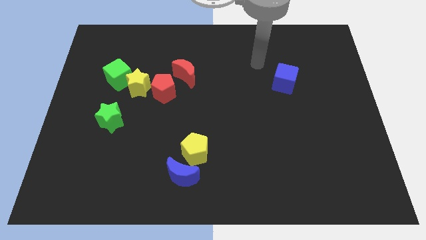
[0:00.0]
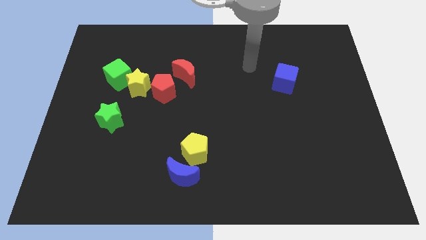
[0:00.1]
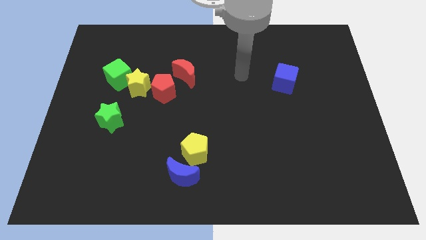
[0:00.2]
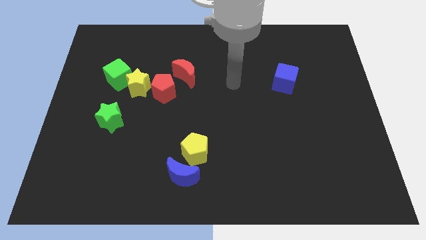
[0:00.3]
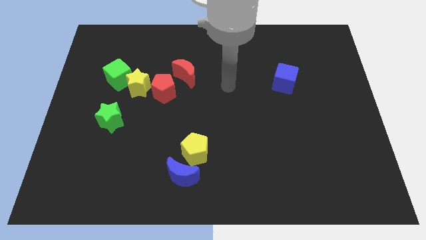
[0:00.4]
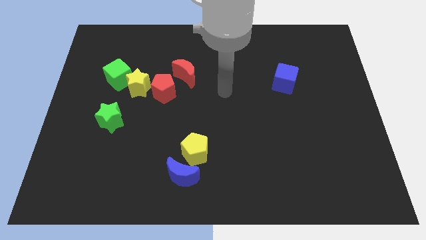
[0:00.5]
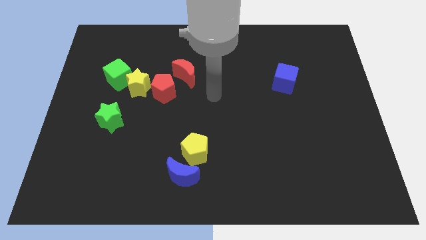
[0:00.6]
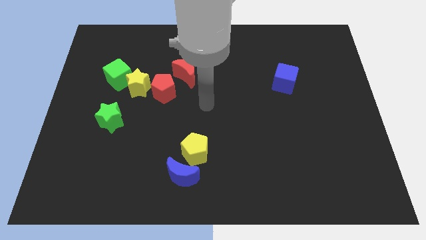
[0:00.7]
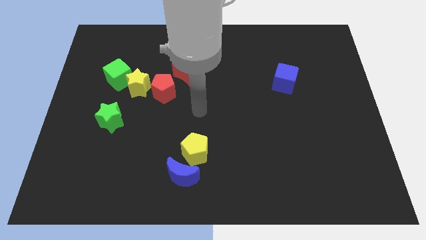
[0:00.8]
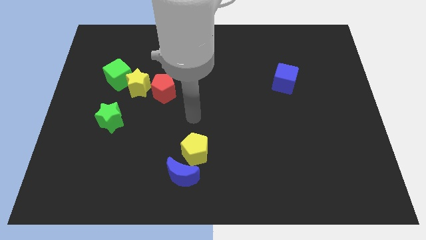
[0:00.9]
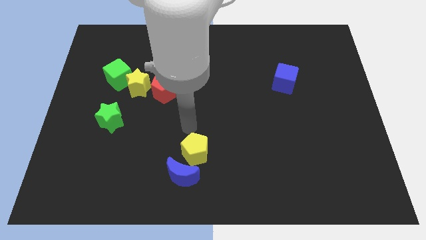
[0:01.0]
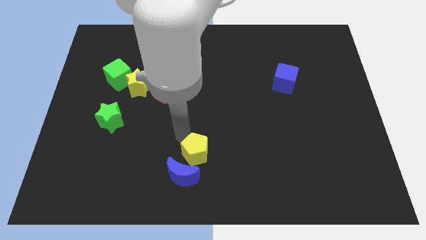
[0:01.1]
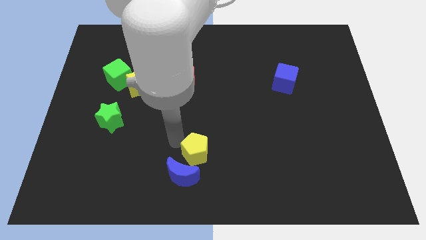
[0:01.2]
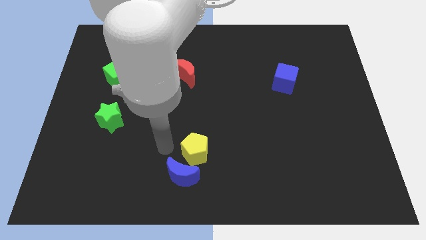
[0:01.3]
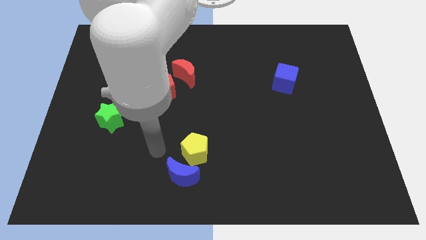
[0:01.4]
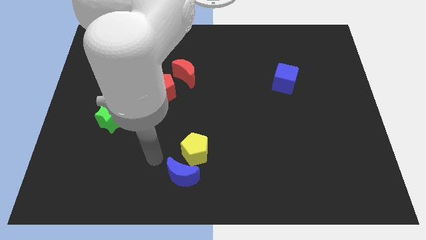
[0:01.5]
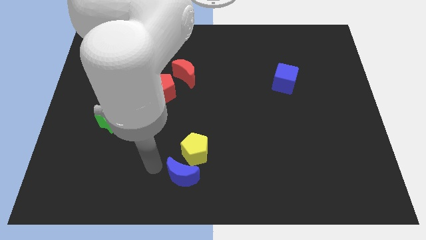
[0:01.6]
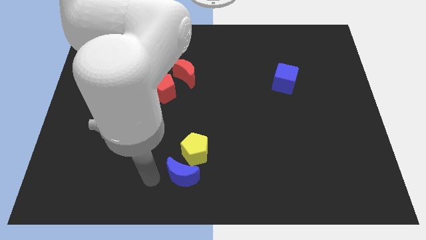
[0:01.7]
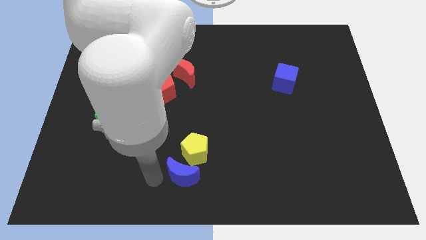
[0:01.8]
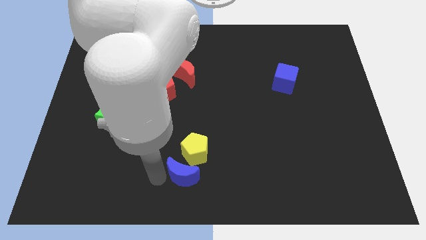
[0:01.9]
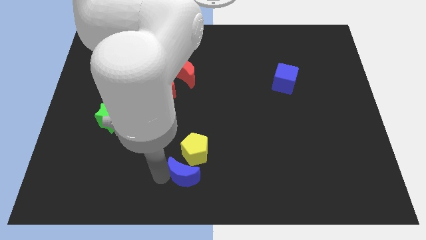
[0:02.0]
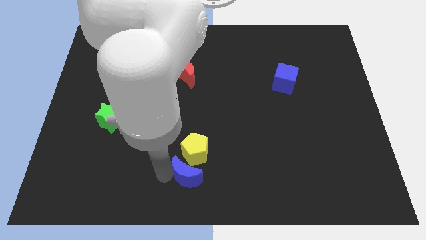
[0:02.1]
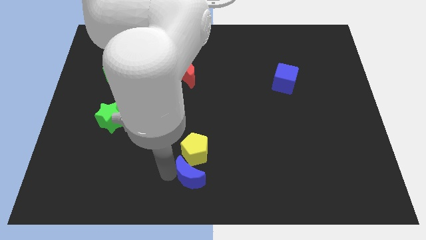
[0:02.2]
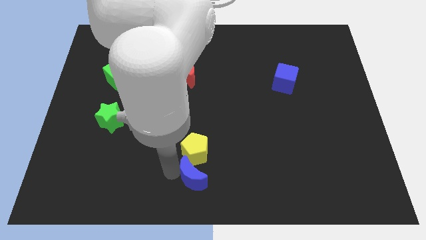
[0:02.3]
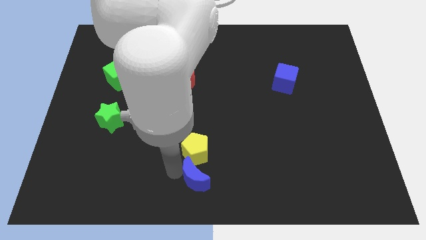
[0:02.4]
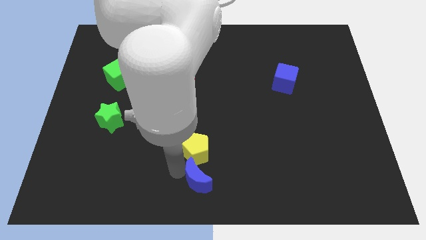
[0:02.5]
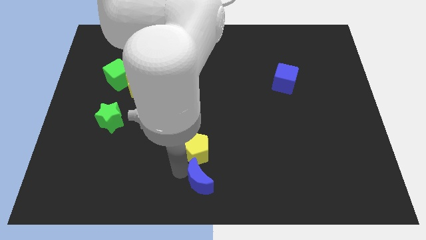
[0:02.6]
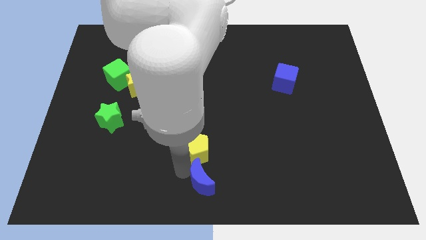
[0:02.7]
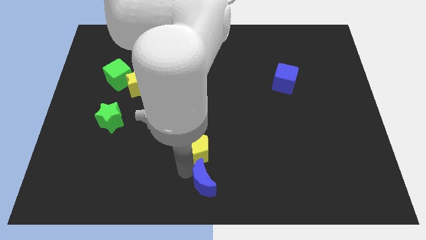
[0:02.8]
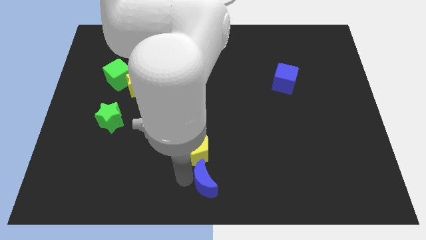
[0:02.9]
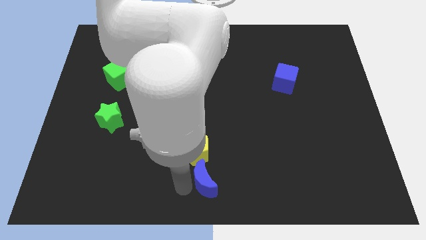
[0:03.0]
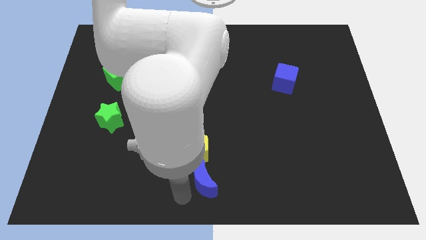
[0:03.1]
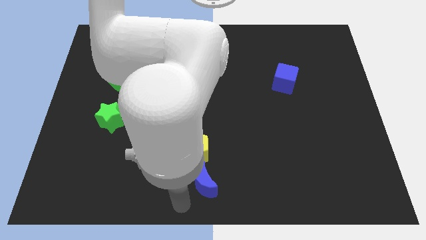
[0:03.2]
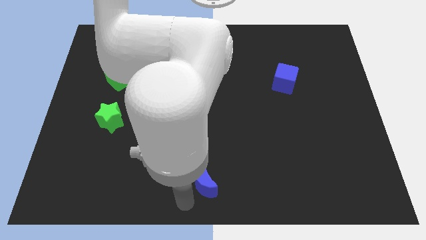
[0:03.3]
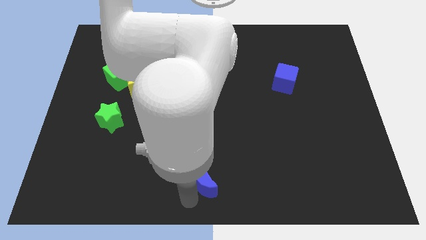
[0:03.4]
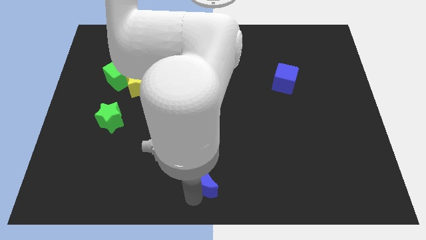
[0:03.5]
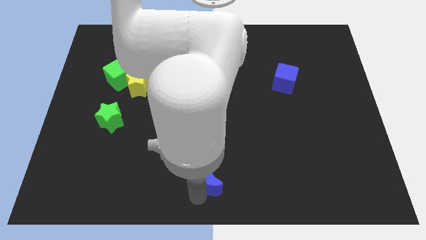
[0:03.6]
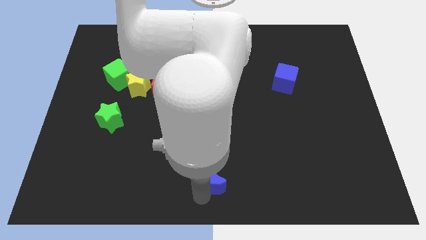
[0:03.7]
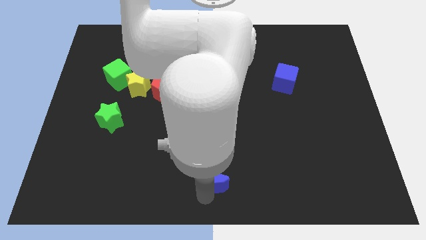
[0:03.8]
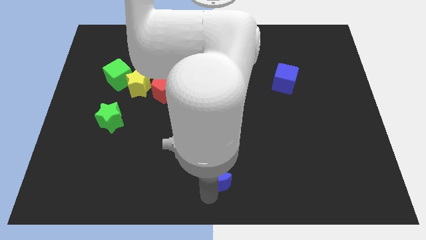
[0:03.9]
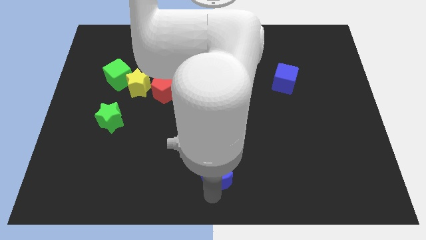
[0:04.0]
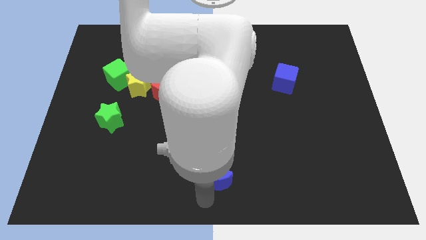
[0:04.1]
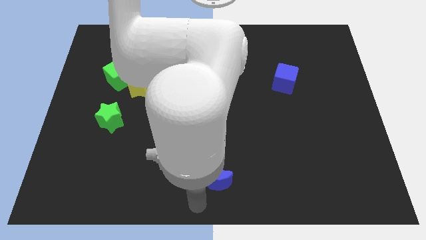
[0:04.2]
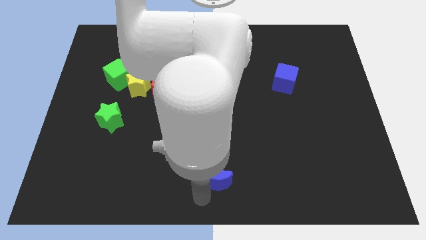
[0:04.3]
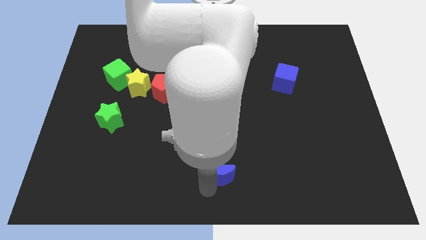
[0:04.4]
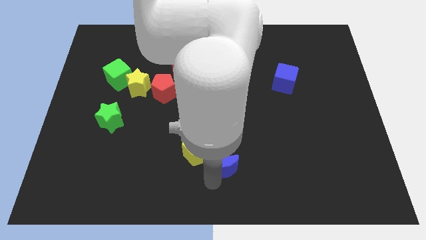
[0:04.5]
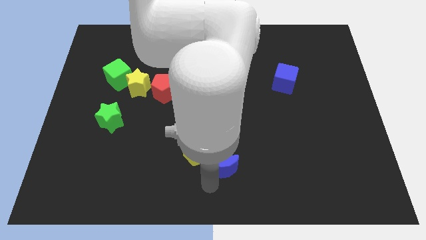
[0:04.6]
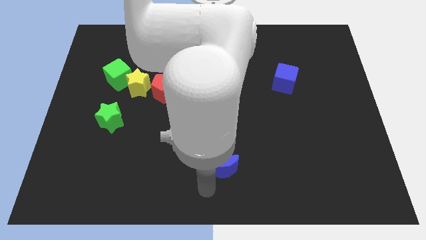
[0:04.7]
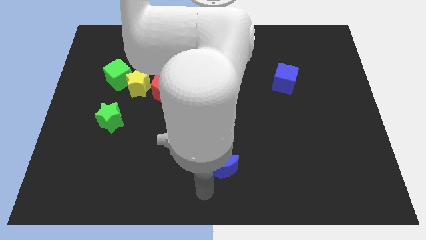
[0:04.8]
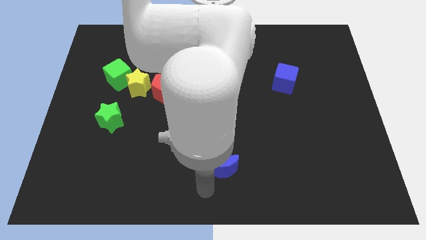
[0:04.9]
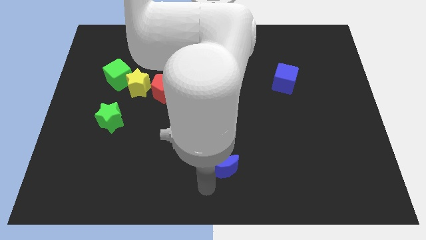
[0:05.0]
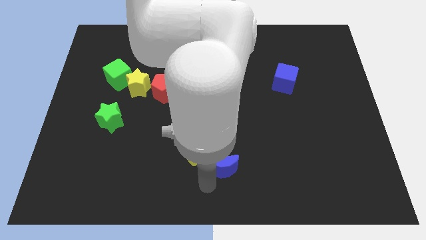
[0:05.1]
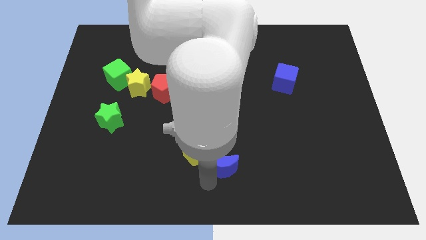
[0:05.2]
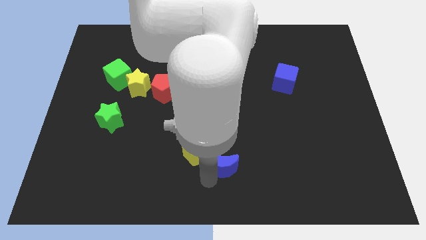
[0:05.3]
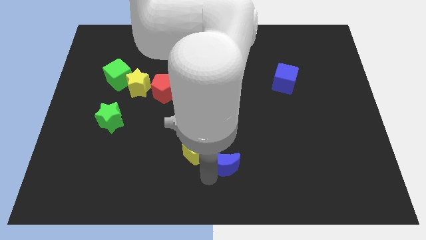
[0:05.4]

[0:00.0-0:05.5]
slightly slide the blue moon upwards and to the right diagonally

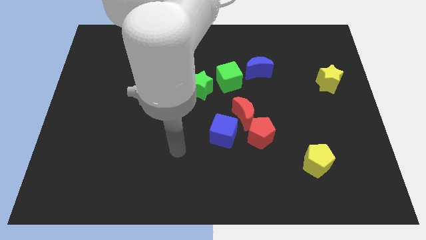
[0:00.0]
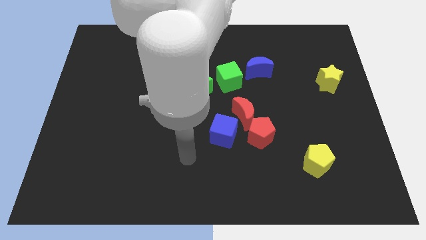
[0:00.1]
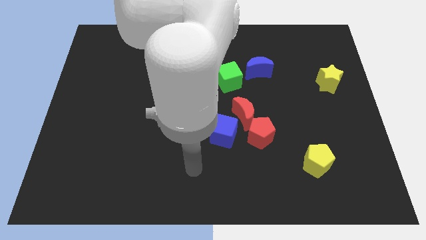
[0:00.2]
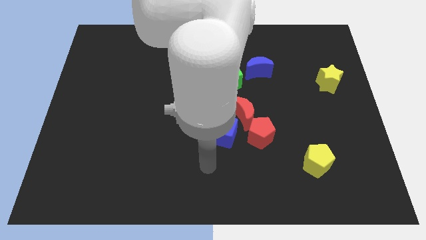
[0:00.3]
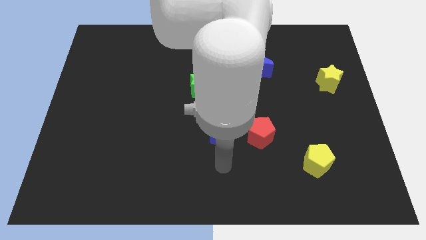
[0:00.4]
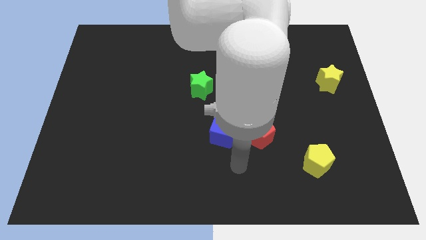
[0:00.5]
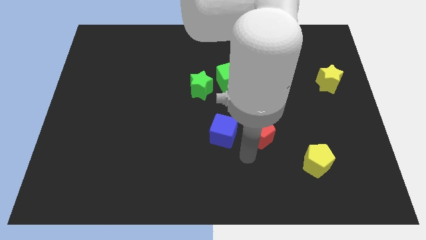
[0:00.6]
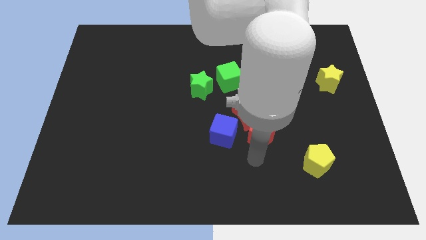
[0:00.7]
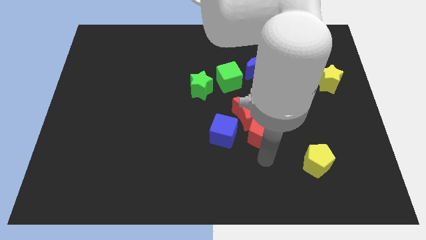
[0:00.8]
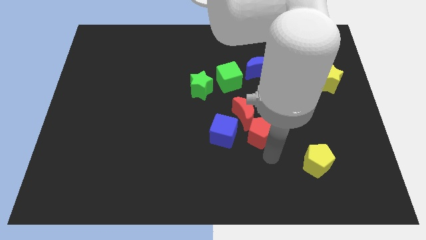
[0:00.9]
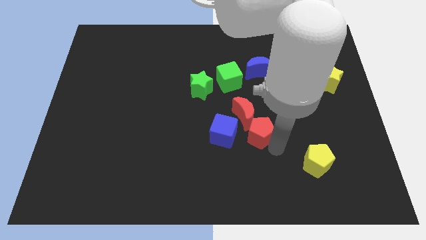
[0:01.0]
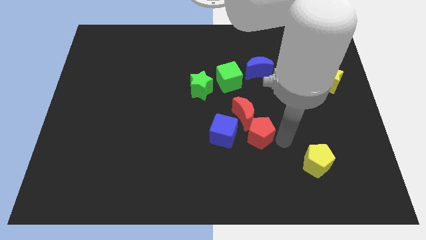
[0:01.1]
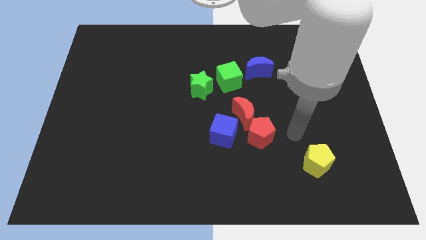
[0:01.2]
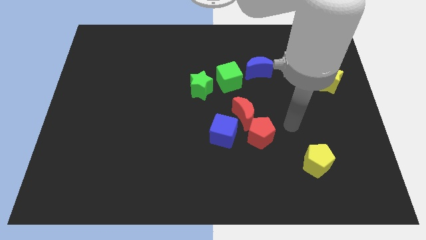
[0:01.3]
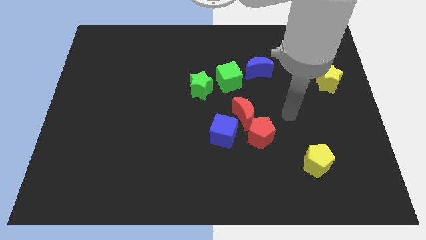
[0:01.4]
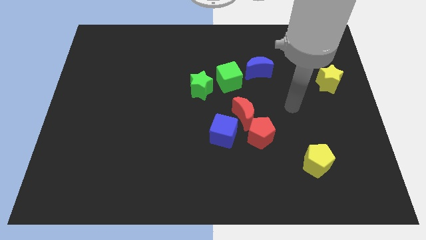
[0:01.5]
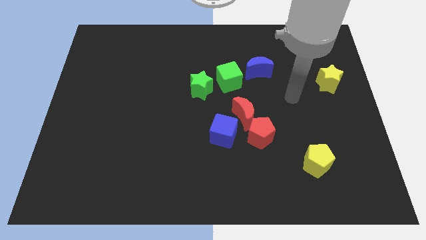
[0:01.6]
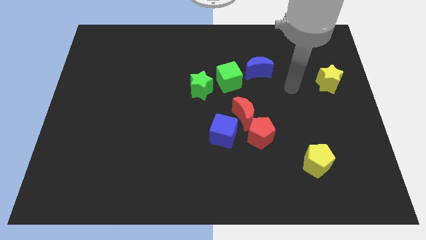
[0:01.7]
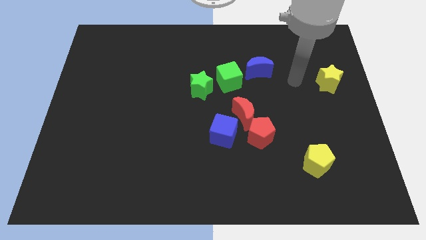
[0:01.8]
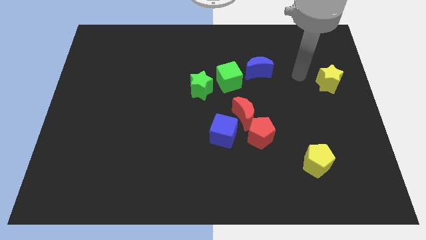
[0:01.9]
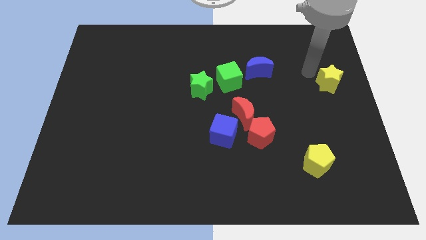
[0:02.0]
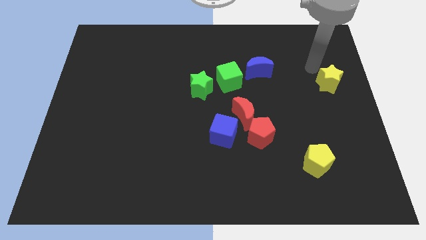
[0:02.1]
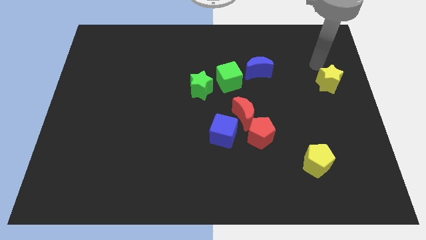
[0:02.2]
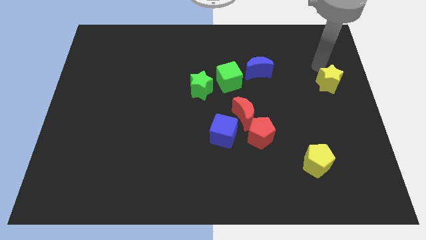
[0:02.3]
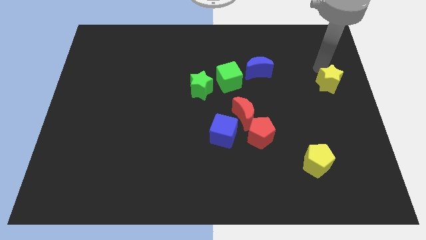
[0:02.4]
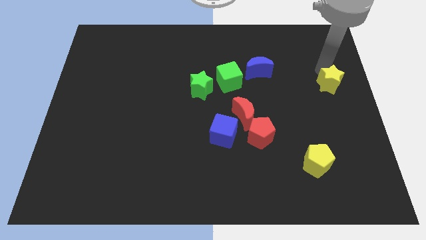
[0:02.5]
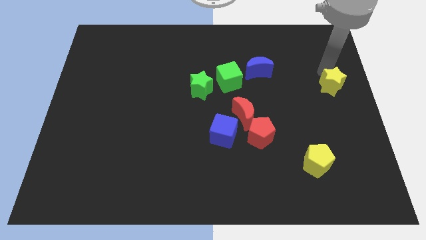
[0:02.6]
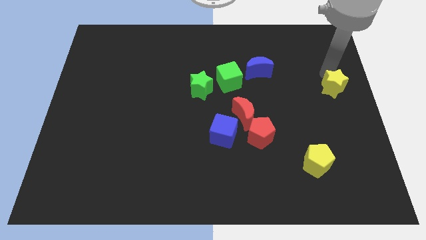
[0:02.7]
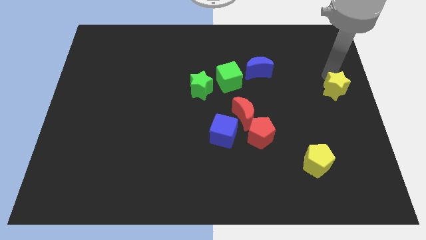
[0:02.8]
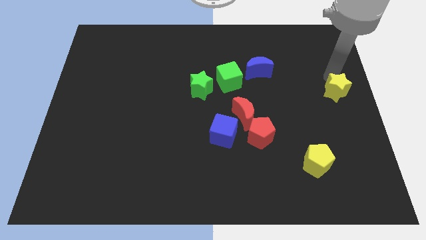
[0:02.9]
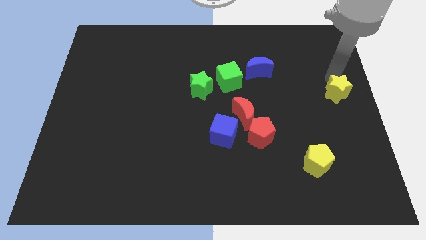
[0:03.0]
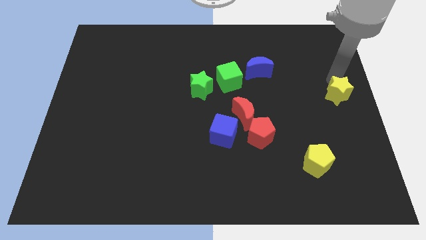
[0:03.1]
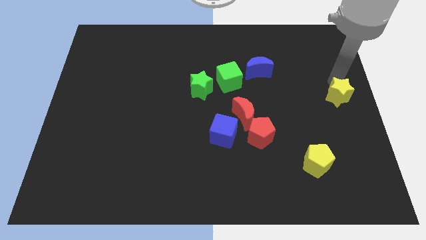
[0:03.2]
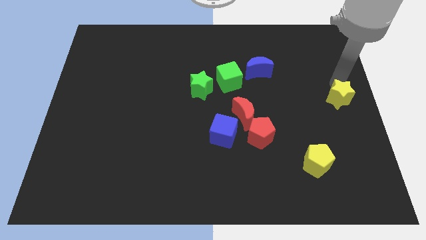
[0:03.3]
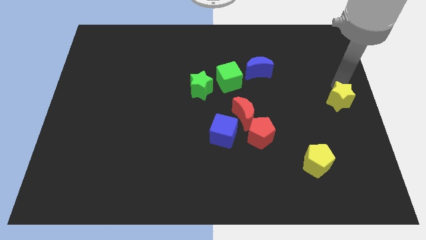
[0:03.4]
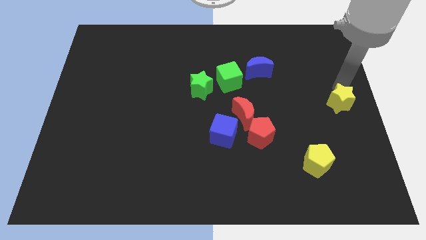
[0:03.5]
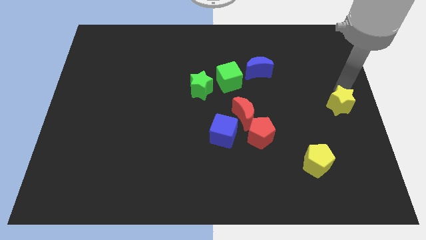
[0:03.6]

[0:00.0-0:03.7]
slide the yellow star a little bit downwards
